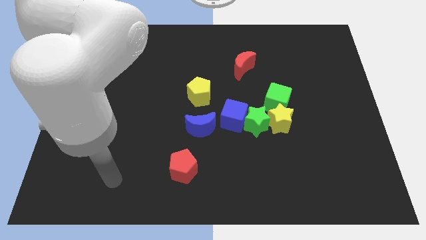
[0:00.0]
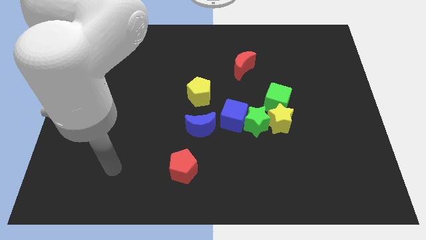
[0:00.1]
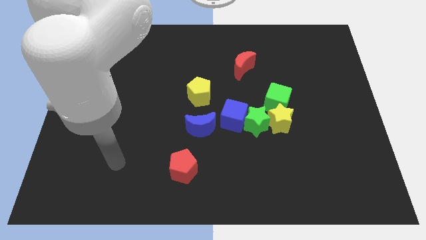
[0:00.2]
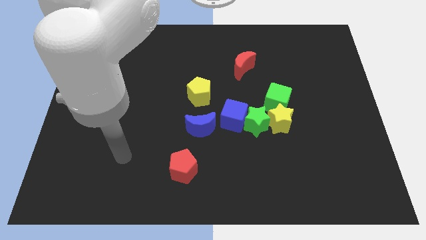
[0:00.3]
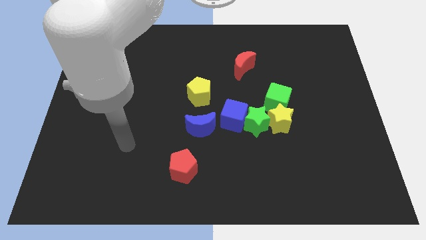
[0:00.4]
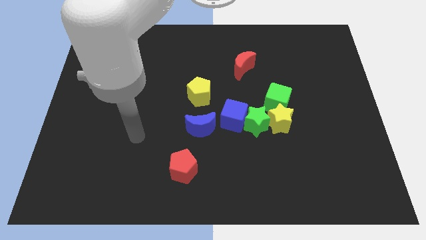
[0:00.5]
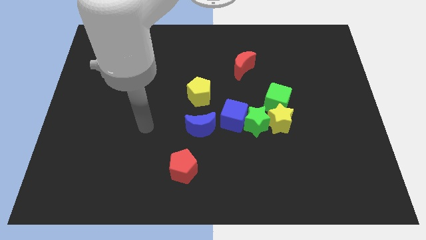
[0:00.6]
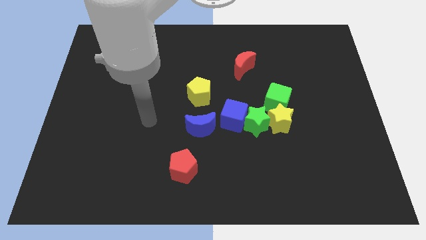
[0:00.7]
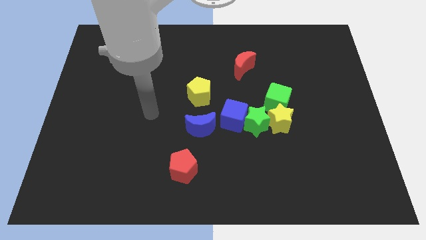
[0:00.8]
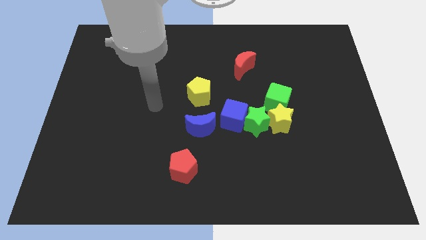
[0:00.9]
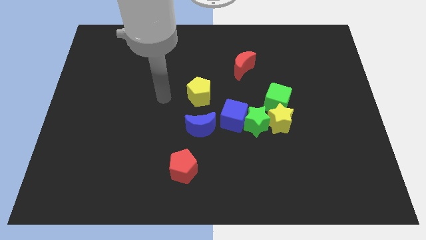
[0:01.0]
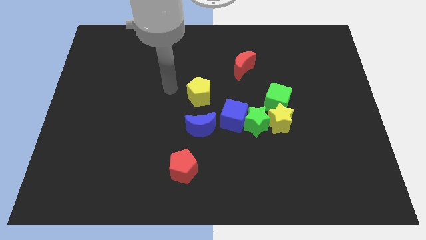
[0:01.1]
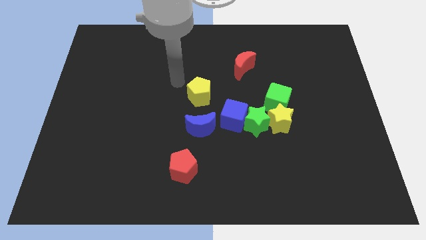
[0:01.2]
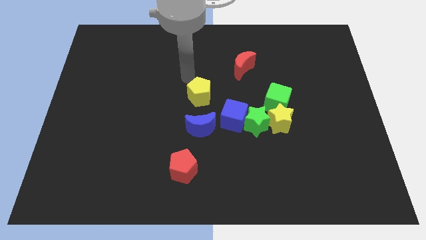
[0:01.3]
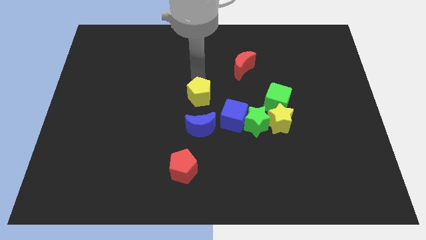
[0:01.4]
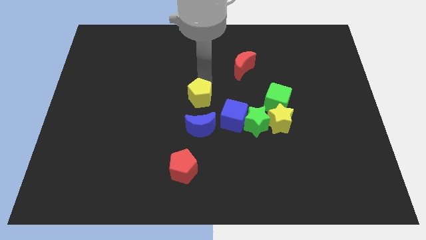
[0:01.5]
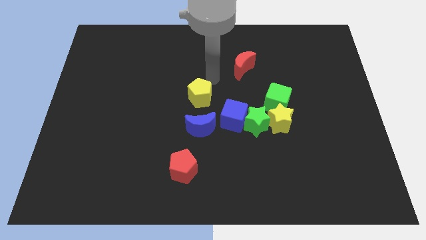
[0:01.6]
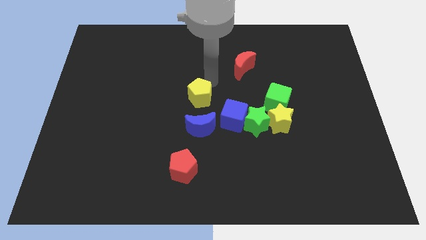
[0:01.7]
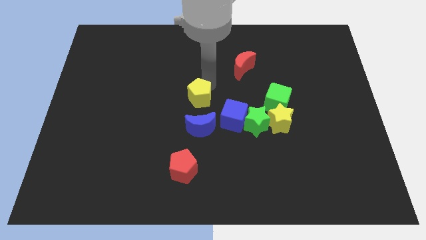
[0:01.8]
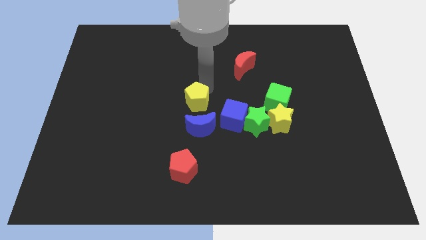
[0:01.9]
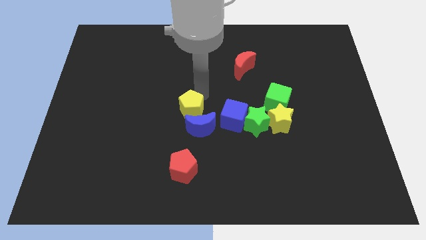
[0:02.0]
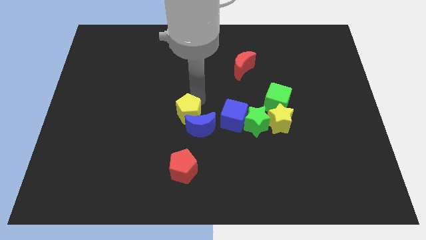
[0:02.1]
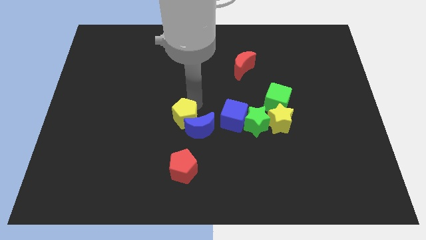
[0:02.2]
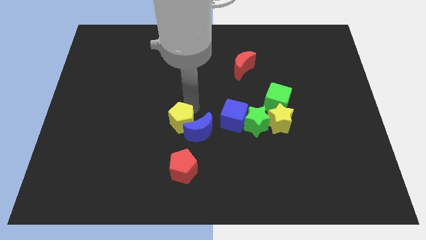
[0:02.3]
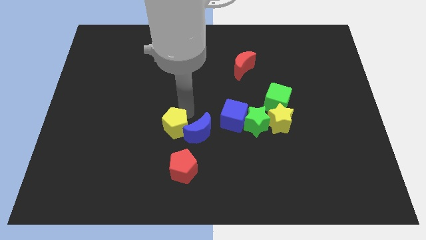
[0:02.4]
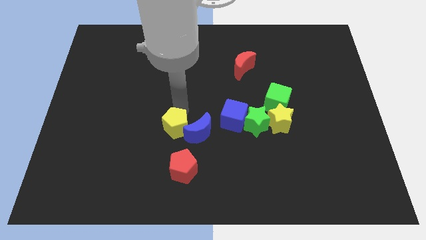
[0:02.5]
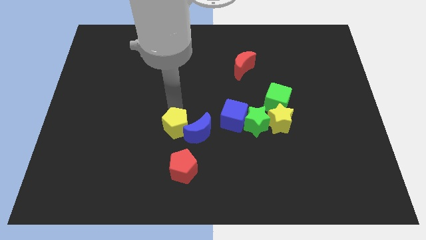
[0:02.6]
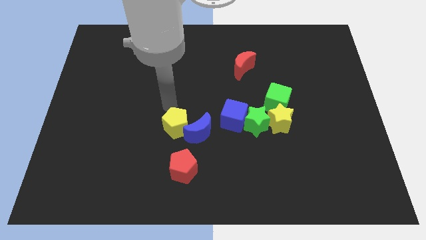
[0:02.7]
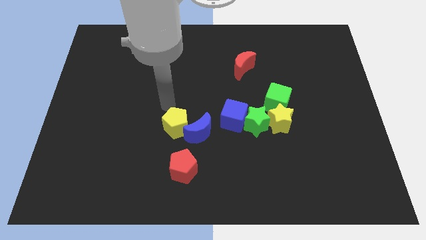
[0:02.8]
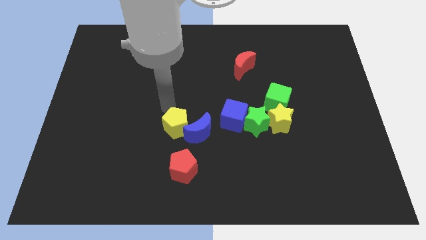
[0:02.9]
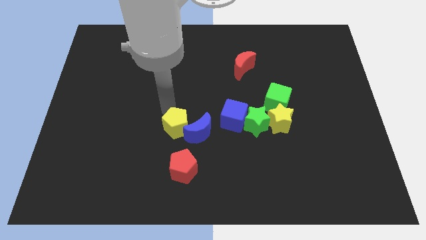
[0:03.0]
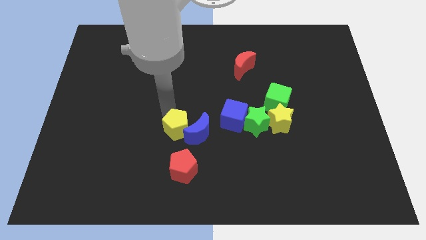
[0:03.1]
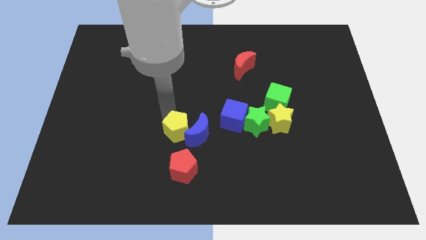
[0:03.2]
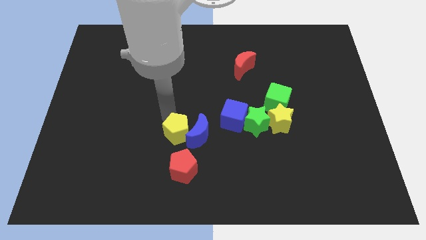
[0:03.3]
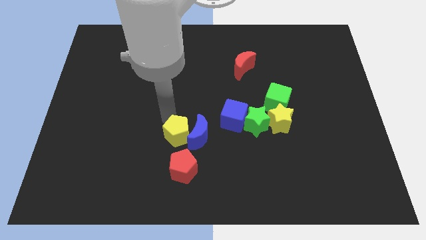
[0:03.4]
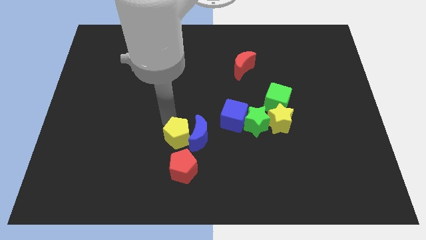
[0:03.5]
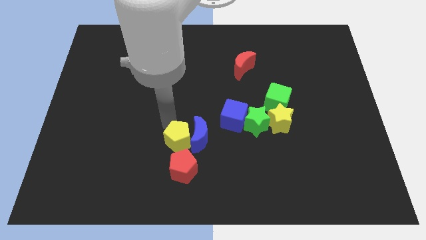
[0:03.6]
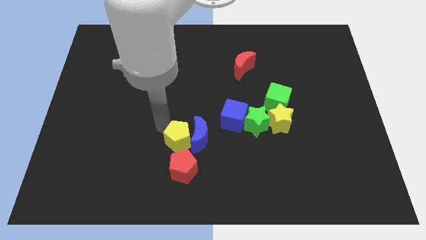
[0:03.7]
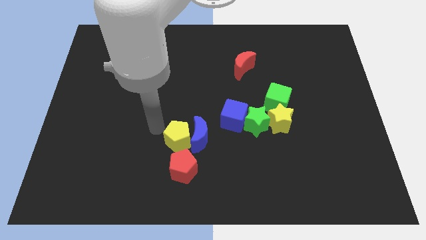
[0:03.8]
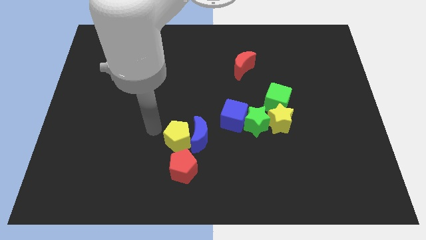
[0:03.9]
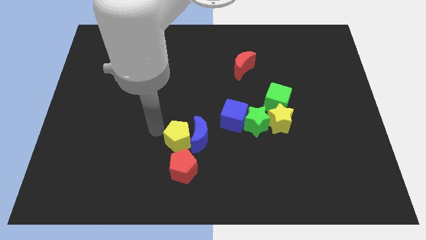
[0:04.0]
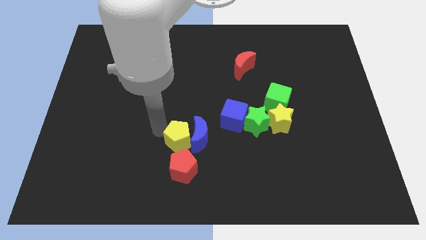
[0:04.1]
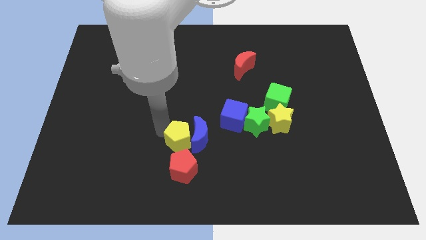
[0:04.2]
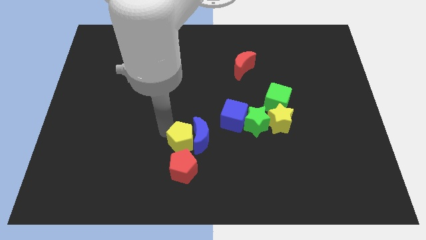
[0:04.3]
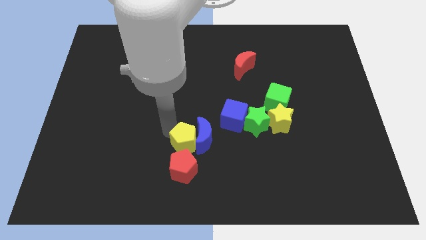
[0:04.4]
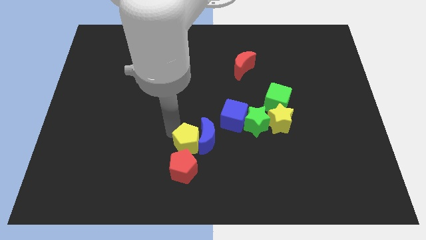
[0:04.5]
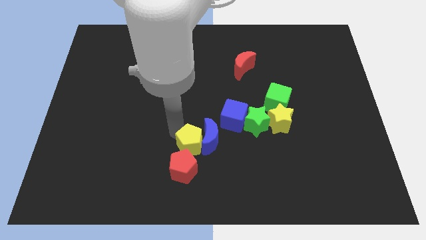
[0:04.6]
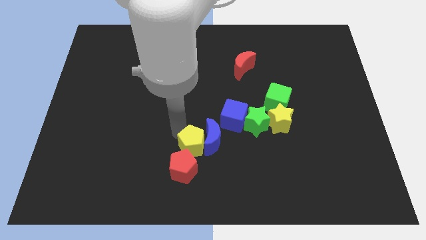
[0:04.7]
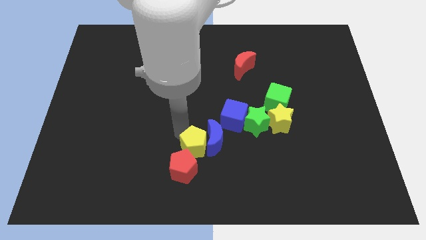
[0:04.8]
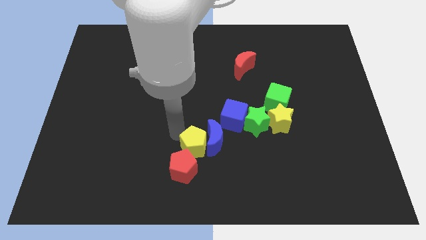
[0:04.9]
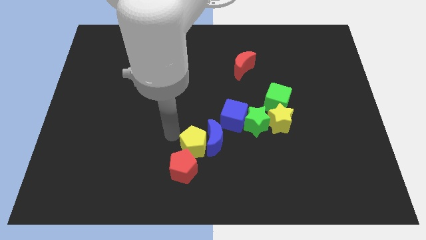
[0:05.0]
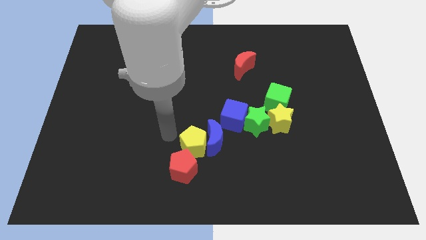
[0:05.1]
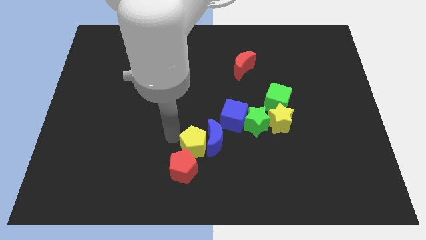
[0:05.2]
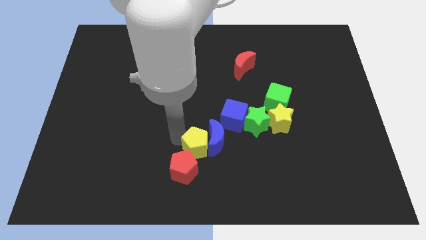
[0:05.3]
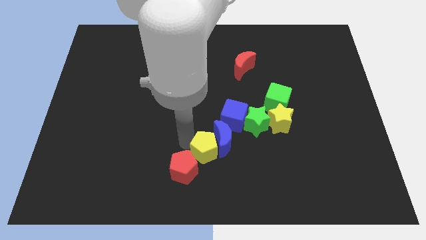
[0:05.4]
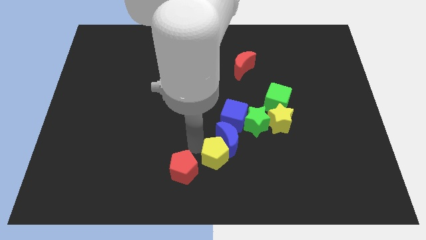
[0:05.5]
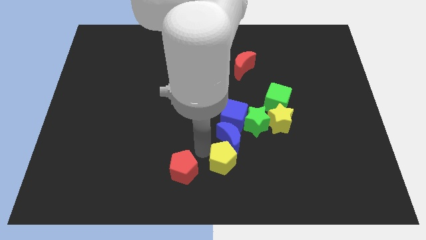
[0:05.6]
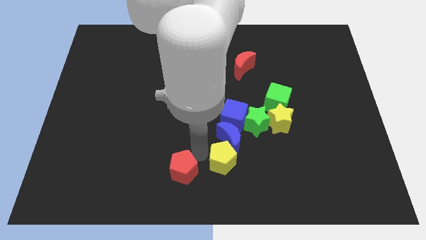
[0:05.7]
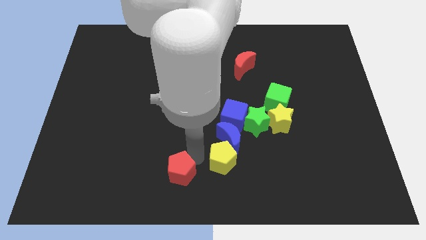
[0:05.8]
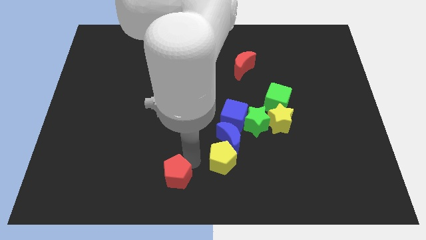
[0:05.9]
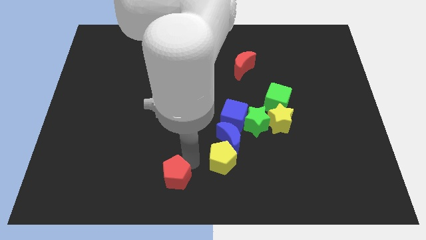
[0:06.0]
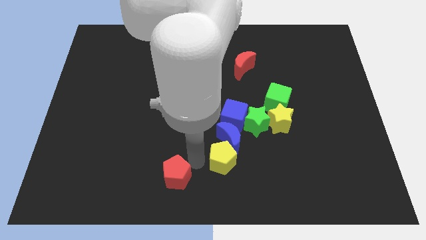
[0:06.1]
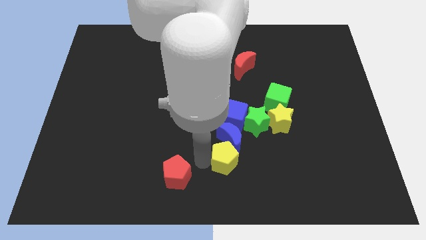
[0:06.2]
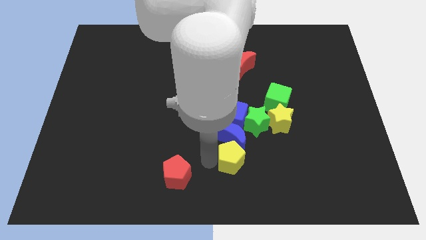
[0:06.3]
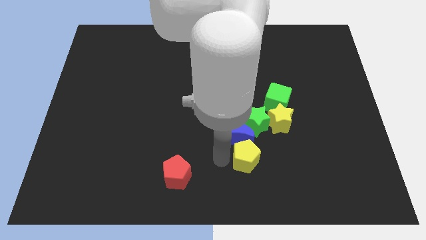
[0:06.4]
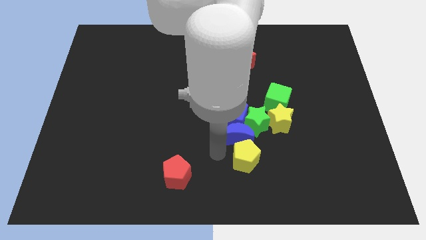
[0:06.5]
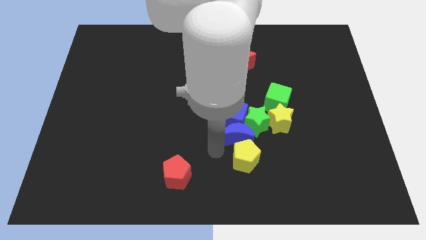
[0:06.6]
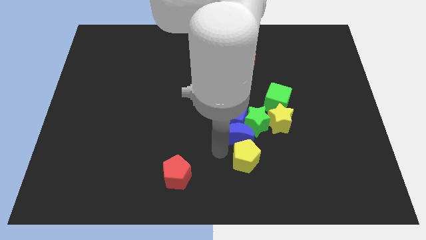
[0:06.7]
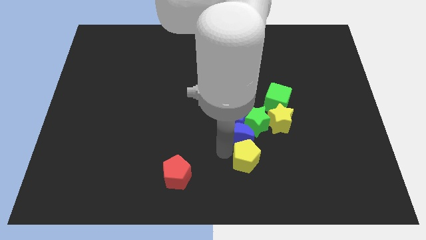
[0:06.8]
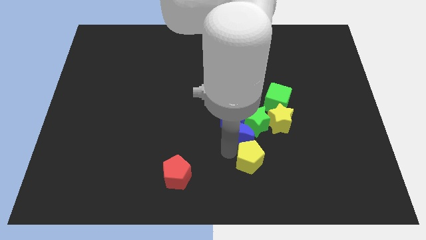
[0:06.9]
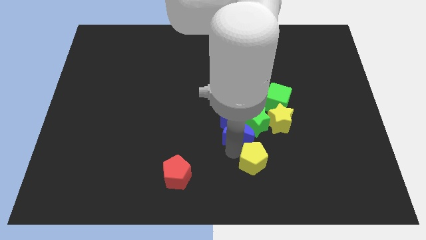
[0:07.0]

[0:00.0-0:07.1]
push the yellow pentagon down and to the right diagonally

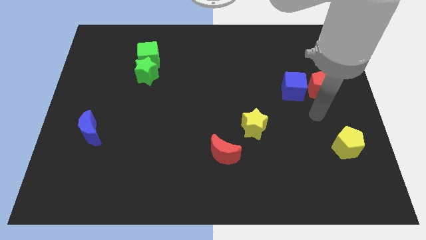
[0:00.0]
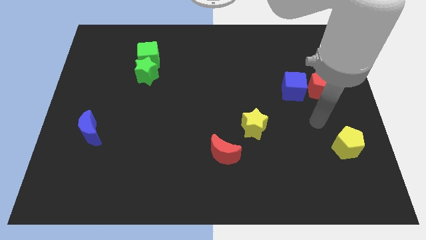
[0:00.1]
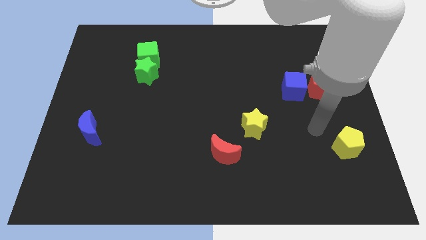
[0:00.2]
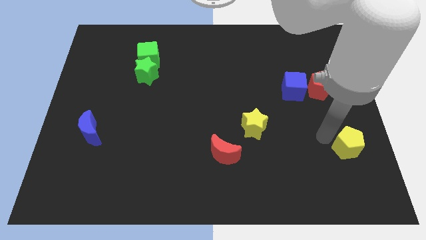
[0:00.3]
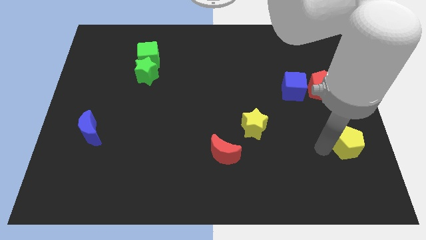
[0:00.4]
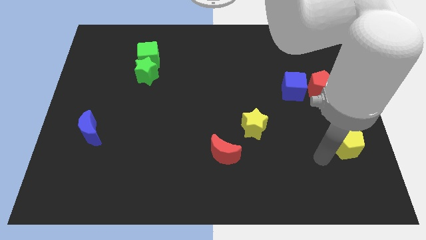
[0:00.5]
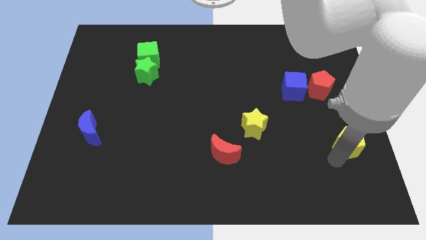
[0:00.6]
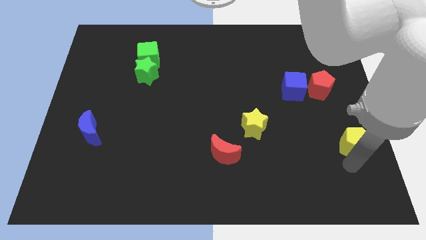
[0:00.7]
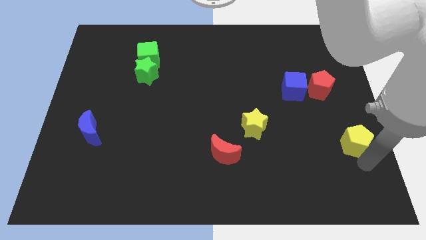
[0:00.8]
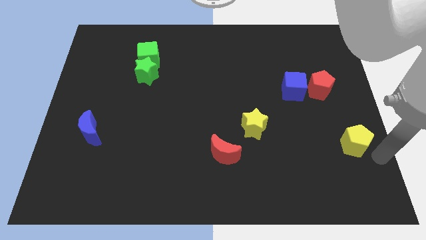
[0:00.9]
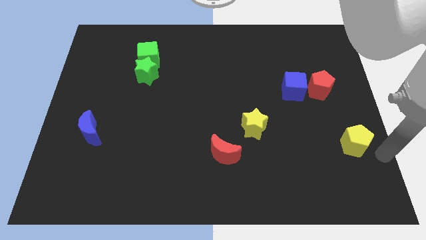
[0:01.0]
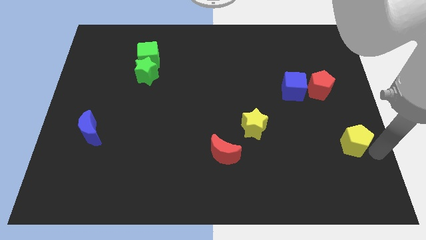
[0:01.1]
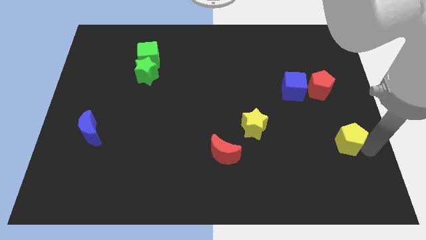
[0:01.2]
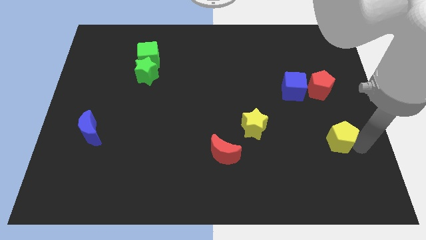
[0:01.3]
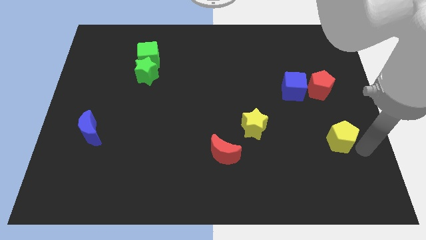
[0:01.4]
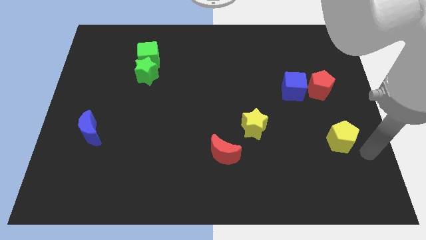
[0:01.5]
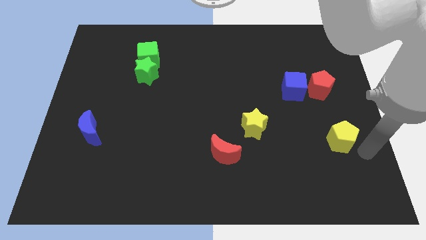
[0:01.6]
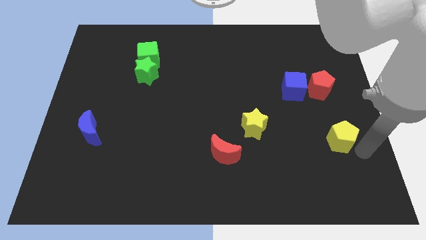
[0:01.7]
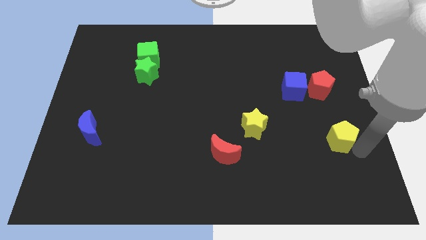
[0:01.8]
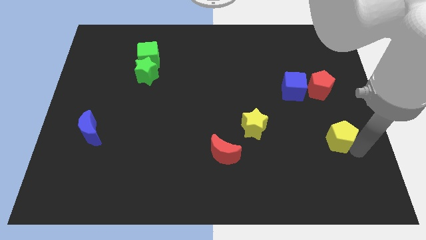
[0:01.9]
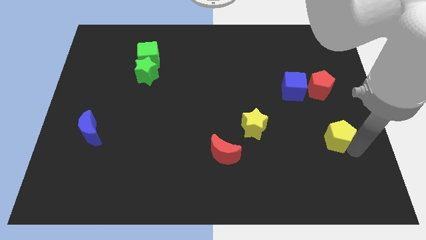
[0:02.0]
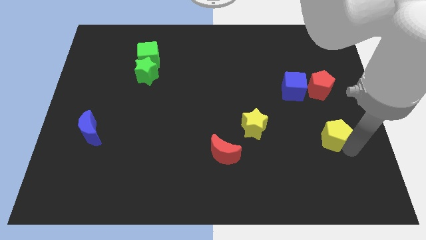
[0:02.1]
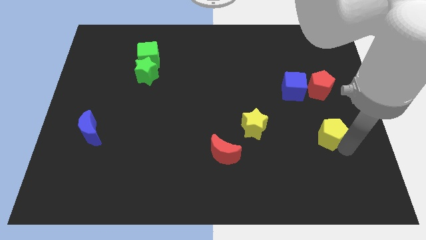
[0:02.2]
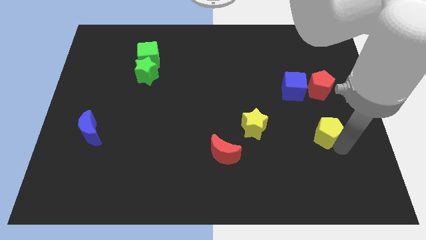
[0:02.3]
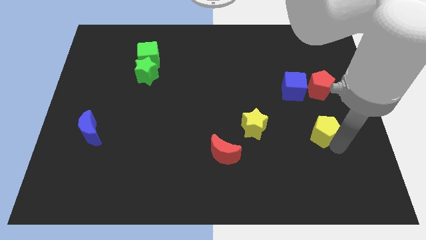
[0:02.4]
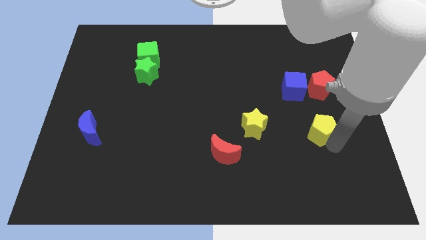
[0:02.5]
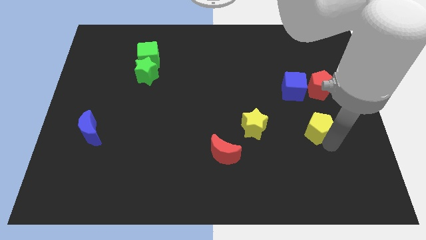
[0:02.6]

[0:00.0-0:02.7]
slide the yellow pentagon upwards and then left a little
